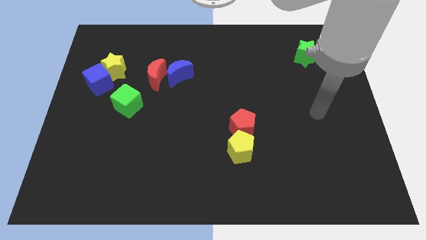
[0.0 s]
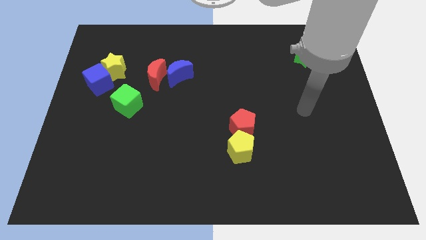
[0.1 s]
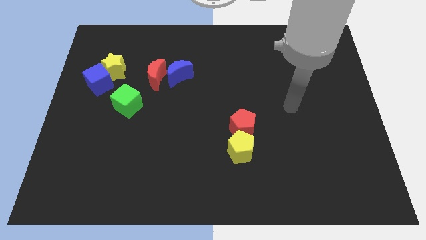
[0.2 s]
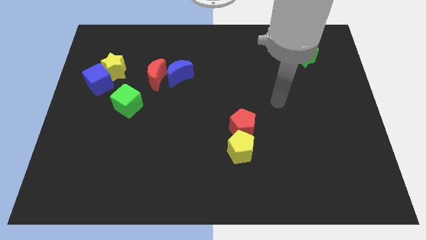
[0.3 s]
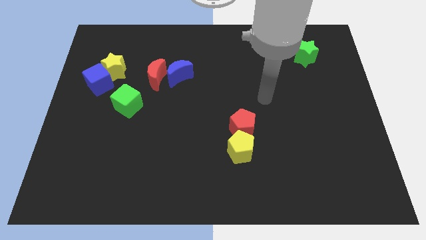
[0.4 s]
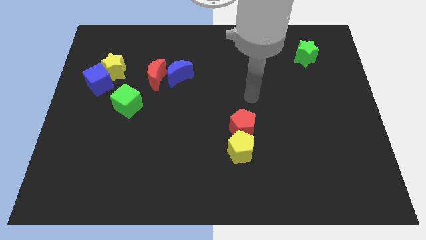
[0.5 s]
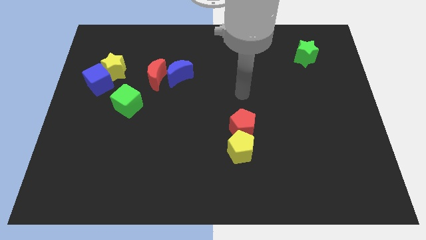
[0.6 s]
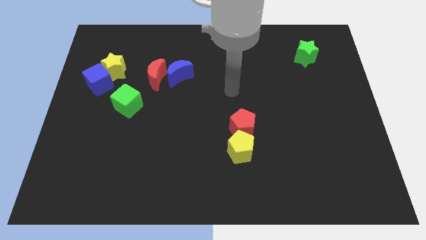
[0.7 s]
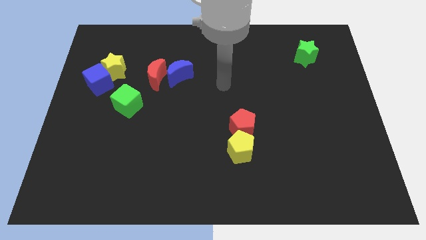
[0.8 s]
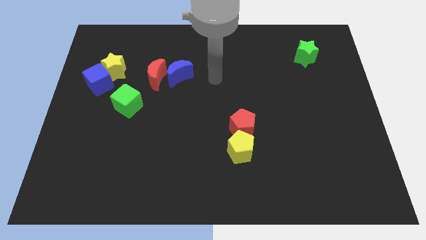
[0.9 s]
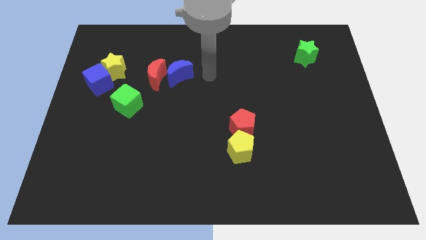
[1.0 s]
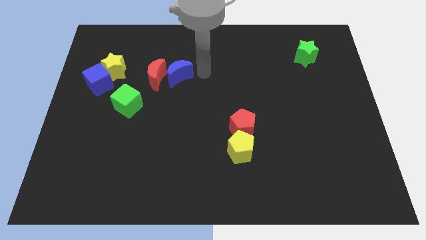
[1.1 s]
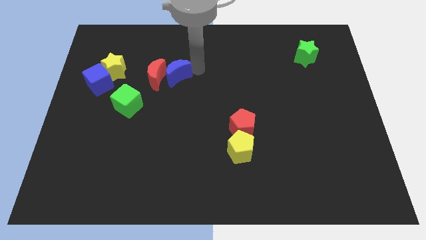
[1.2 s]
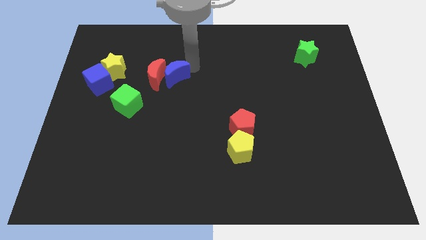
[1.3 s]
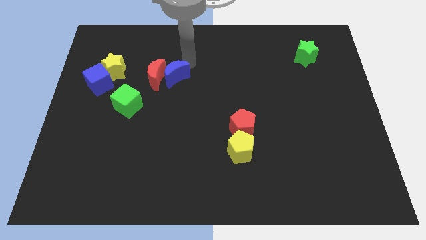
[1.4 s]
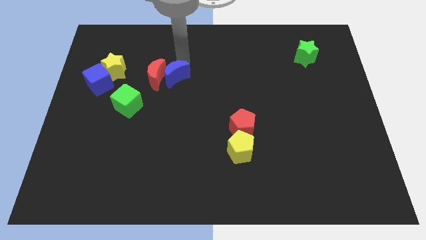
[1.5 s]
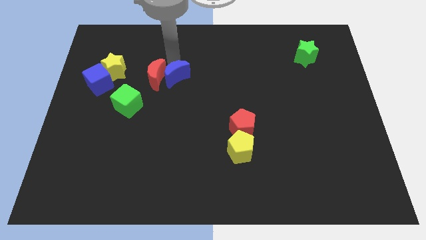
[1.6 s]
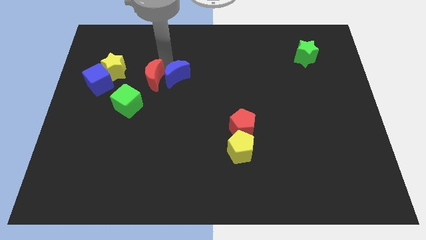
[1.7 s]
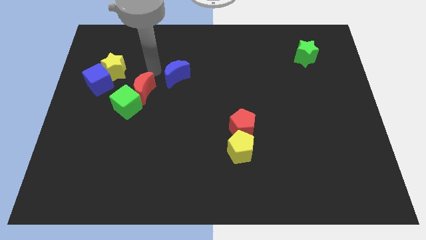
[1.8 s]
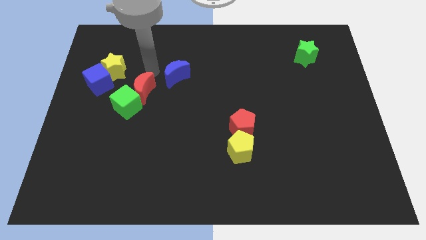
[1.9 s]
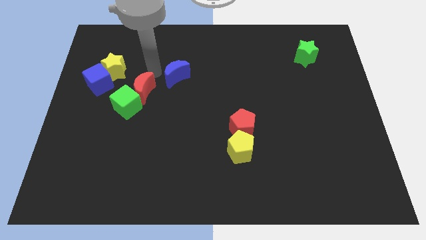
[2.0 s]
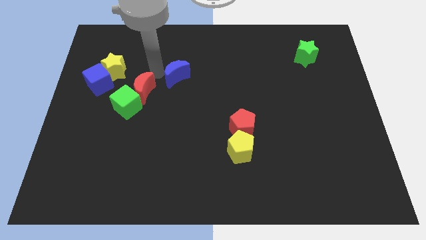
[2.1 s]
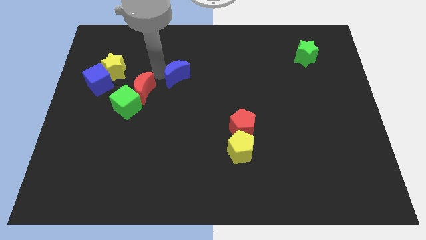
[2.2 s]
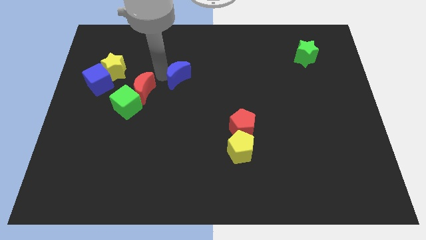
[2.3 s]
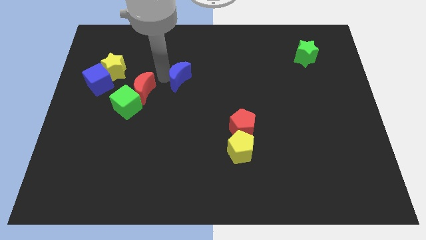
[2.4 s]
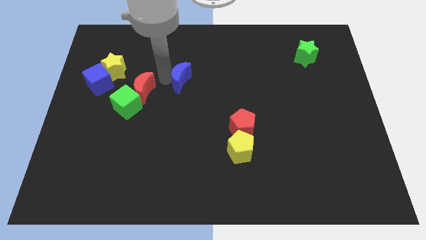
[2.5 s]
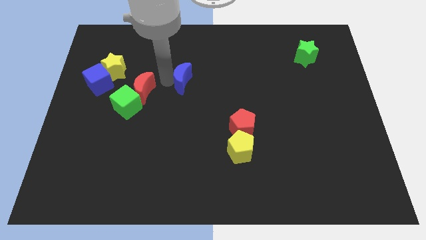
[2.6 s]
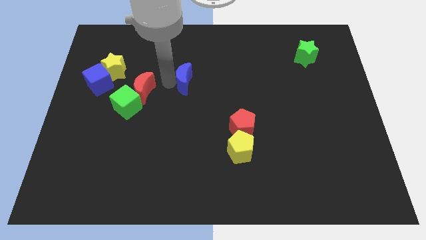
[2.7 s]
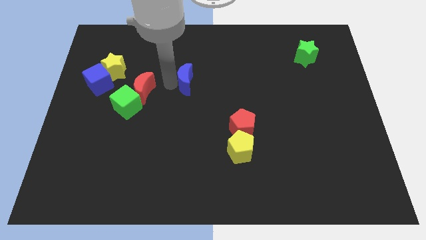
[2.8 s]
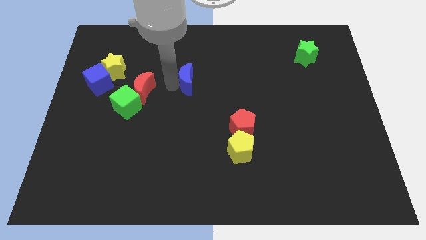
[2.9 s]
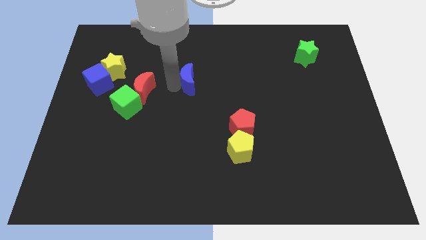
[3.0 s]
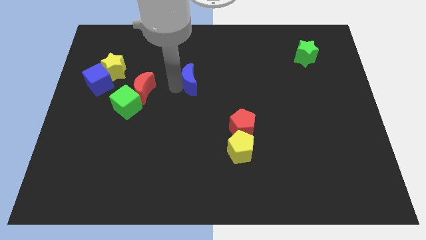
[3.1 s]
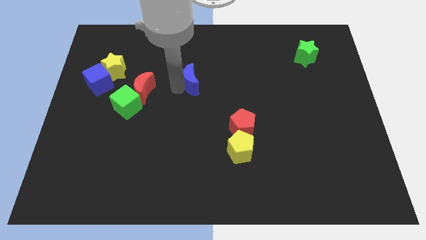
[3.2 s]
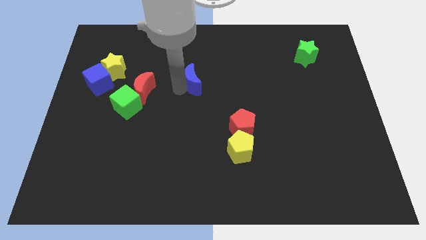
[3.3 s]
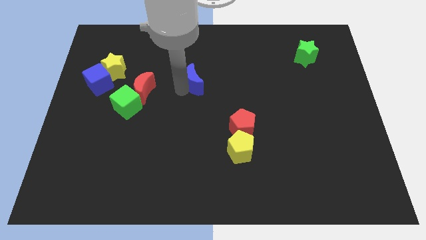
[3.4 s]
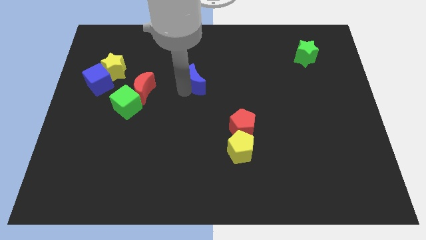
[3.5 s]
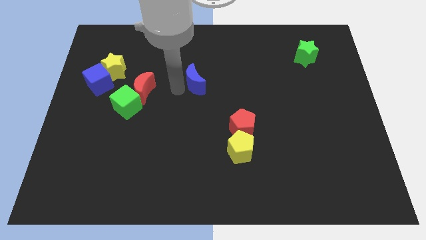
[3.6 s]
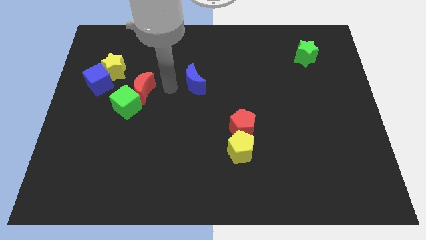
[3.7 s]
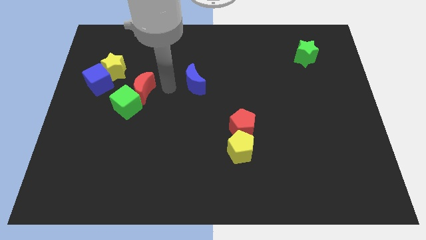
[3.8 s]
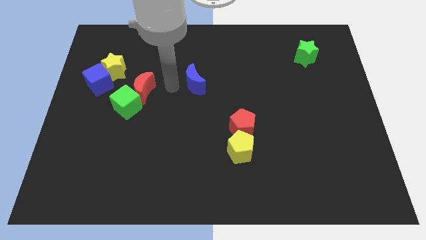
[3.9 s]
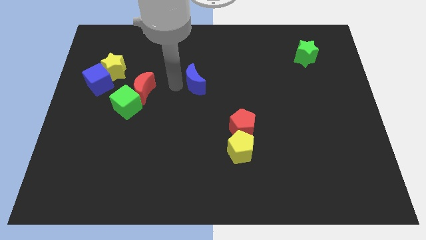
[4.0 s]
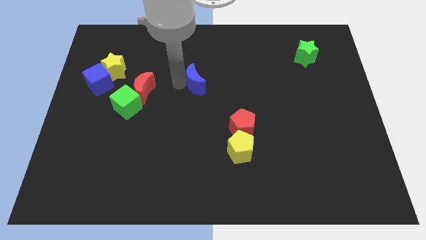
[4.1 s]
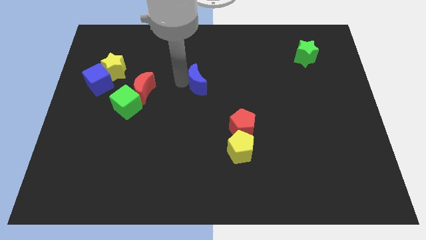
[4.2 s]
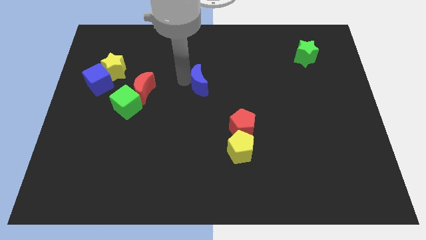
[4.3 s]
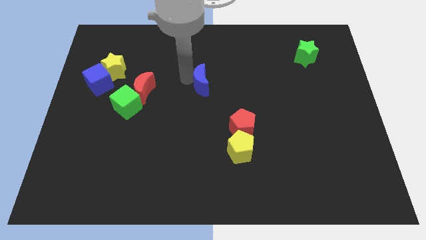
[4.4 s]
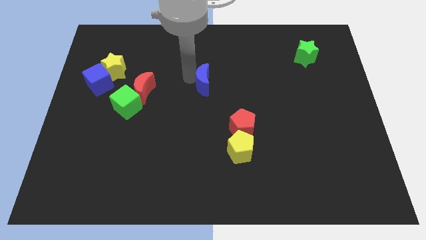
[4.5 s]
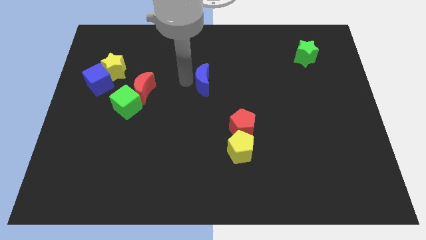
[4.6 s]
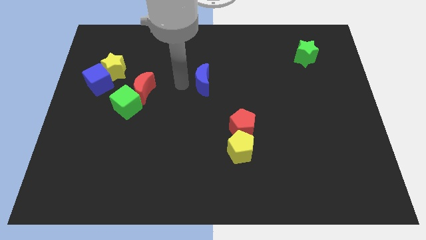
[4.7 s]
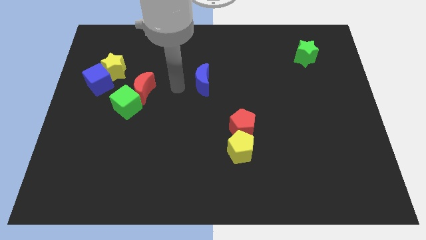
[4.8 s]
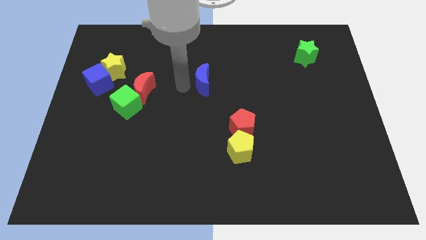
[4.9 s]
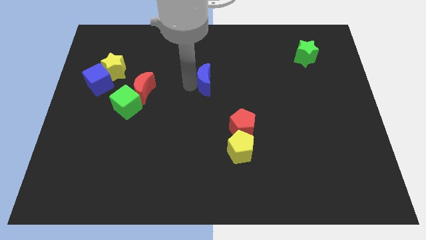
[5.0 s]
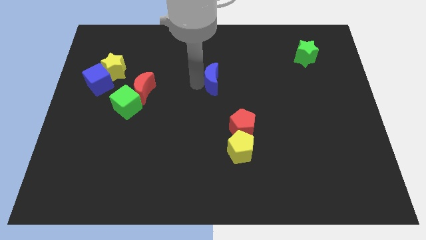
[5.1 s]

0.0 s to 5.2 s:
move the blue moon a bit right

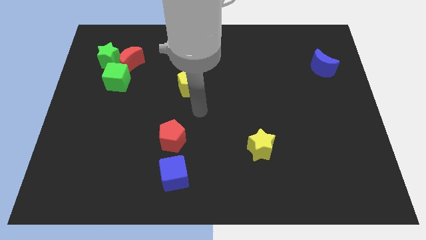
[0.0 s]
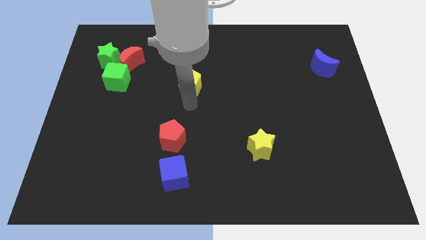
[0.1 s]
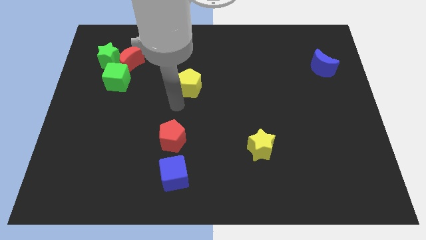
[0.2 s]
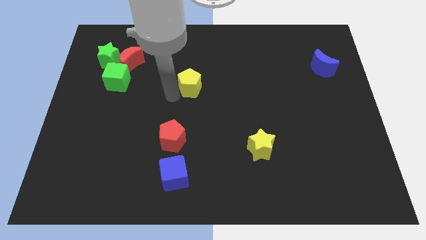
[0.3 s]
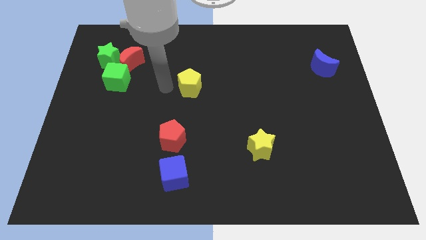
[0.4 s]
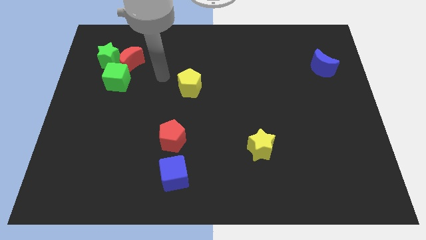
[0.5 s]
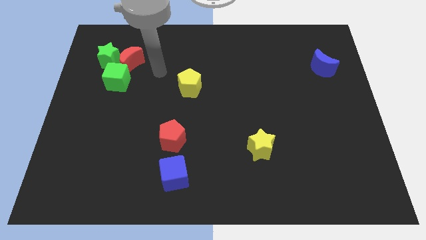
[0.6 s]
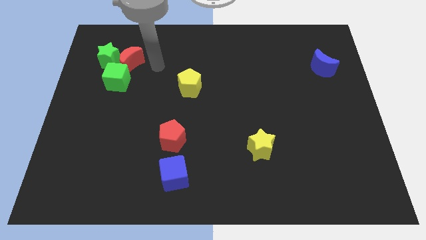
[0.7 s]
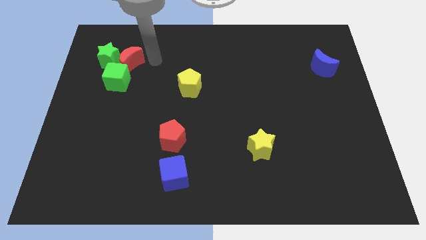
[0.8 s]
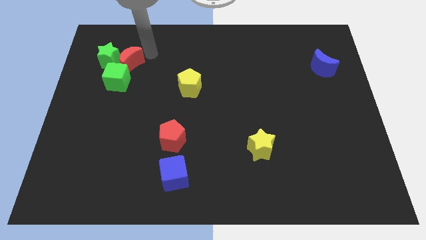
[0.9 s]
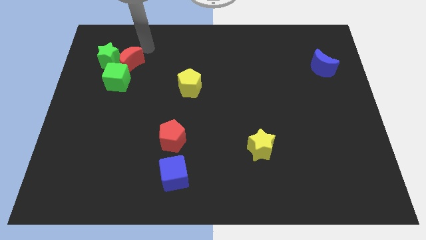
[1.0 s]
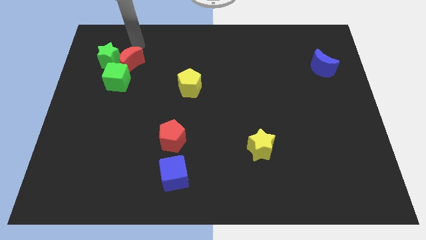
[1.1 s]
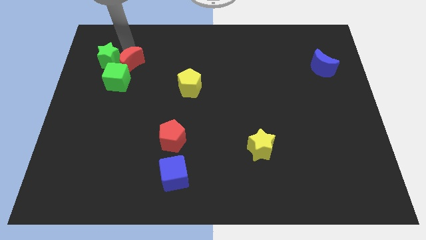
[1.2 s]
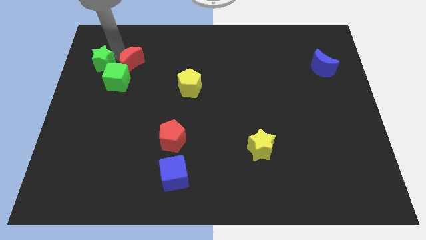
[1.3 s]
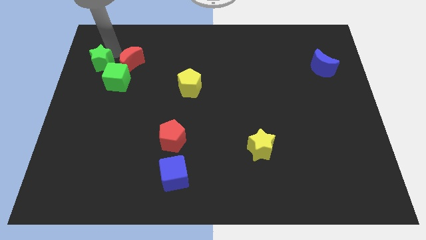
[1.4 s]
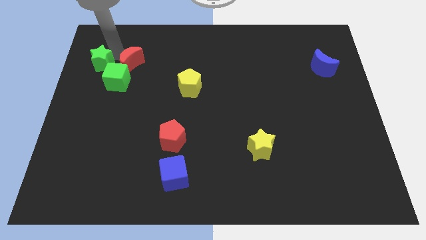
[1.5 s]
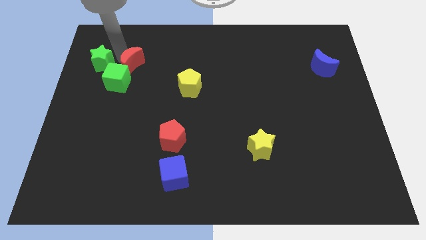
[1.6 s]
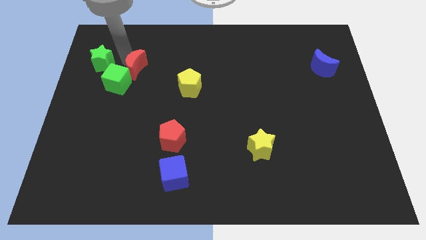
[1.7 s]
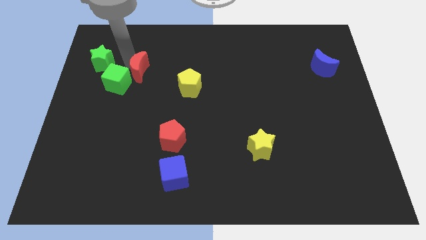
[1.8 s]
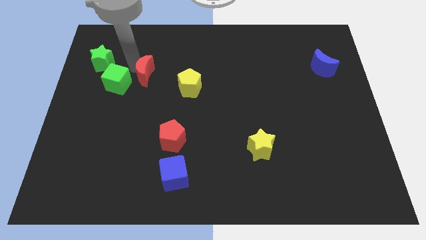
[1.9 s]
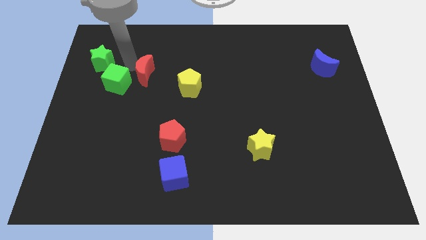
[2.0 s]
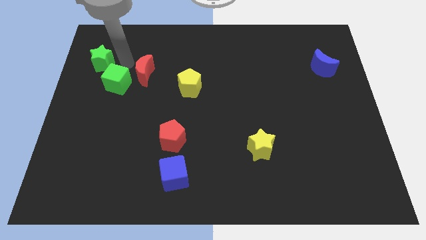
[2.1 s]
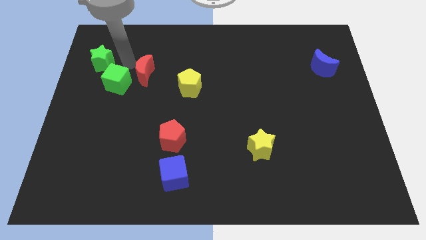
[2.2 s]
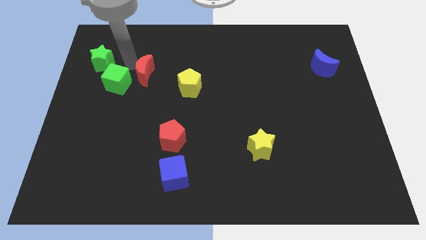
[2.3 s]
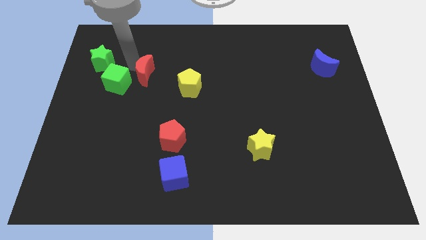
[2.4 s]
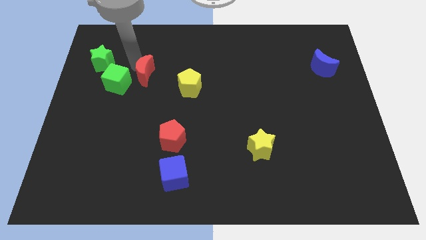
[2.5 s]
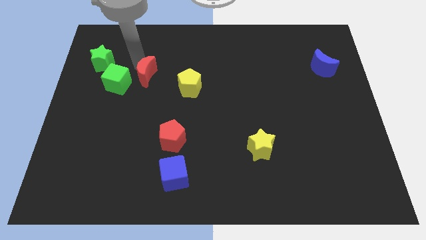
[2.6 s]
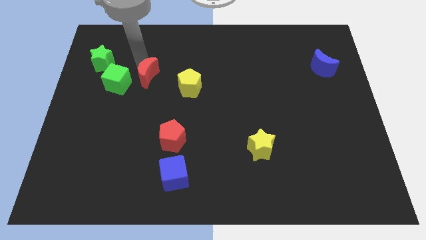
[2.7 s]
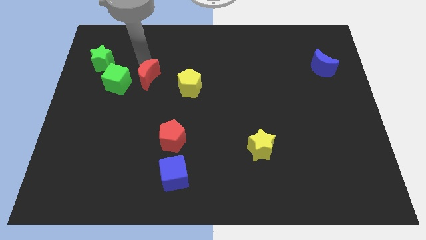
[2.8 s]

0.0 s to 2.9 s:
slightly push the red moon down and to the right diagonally
